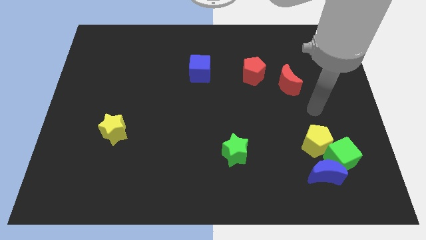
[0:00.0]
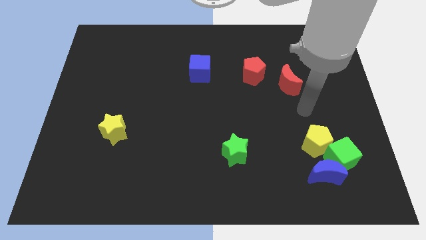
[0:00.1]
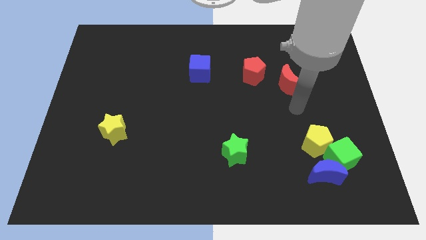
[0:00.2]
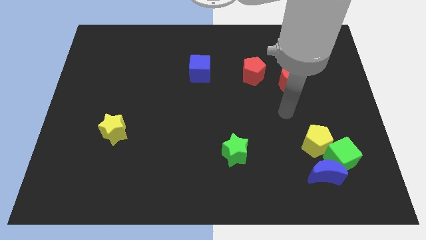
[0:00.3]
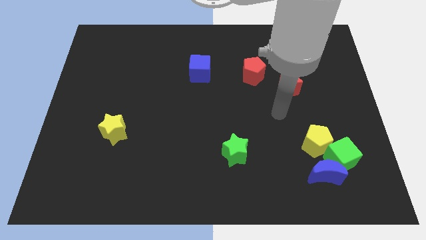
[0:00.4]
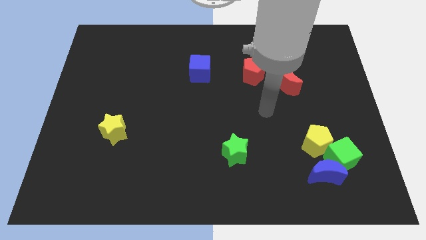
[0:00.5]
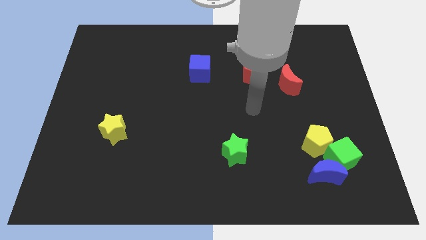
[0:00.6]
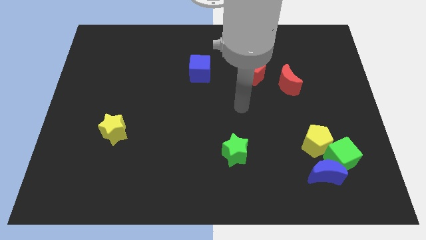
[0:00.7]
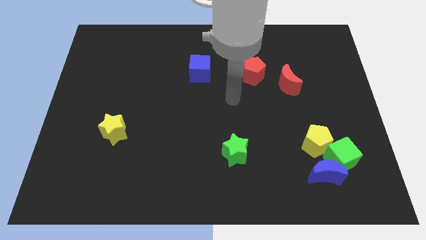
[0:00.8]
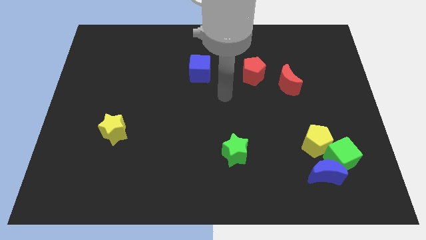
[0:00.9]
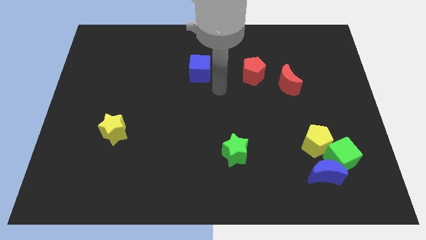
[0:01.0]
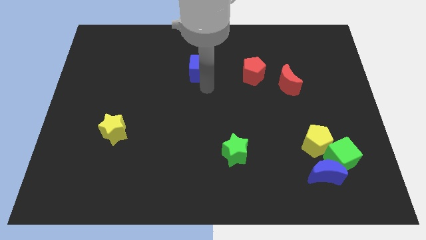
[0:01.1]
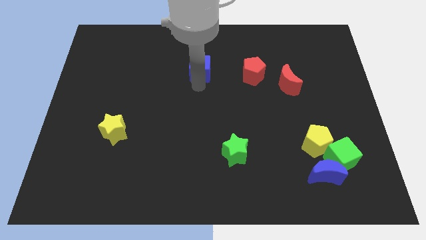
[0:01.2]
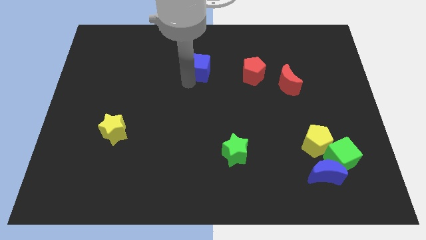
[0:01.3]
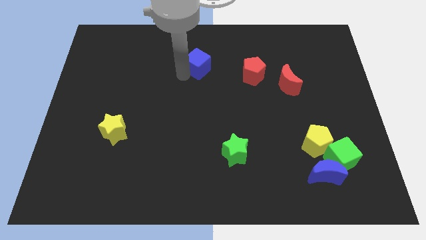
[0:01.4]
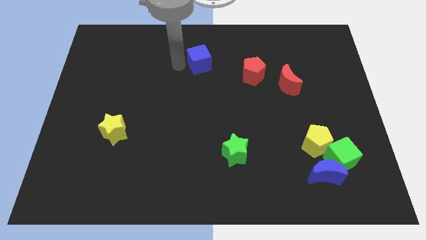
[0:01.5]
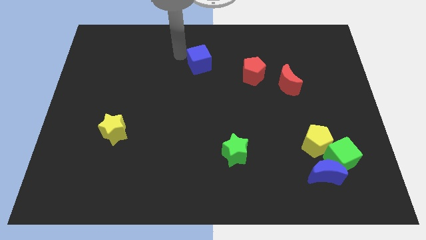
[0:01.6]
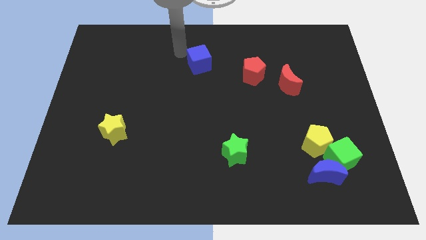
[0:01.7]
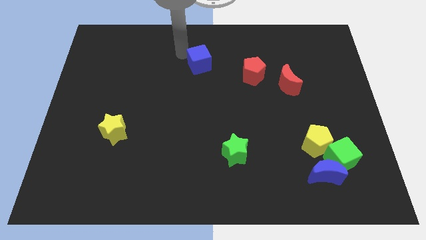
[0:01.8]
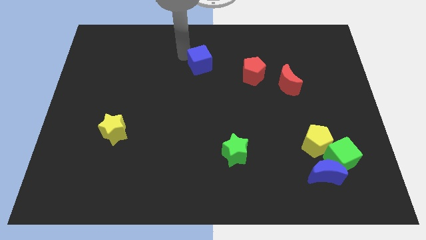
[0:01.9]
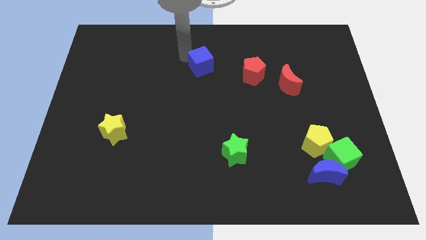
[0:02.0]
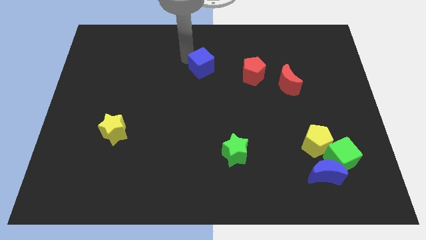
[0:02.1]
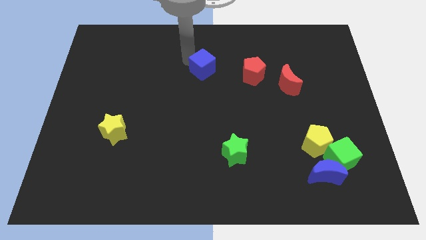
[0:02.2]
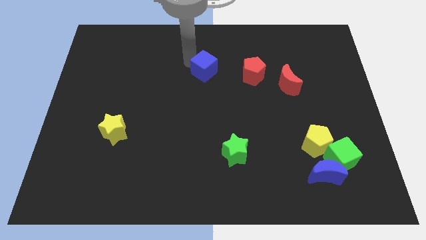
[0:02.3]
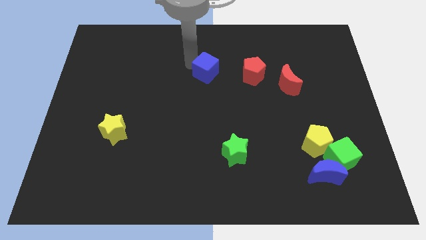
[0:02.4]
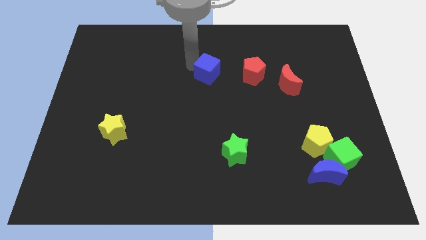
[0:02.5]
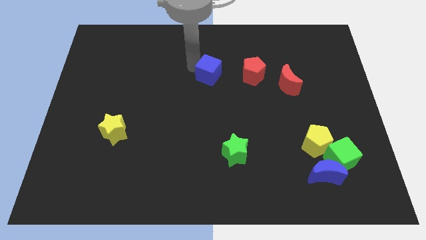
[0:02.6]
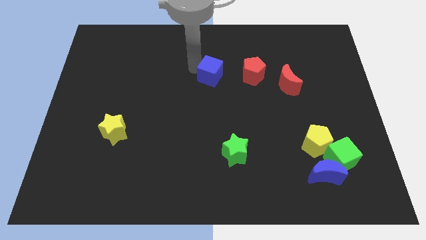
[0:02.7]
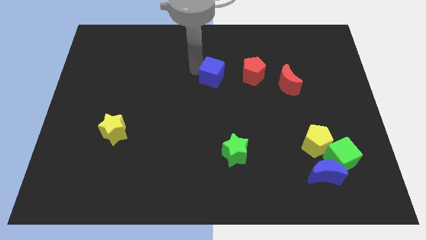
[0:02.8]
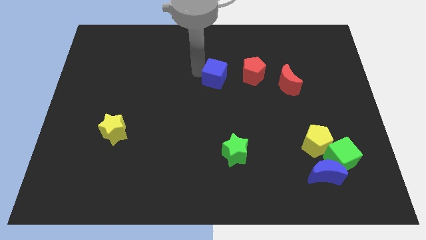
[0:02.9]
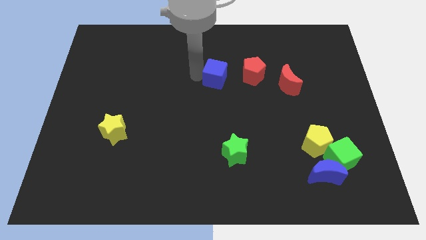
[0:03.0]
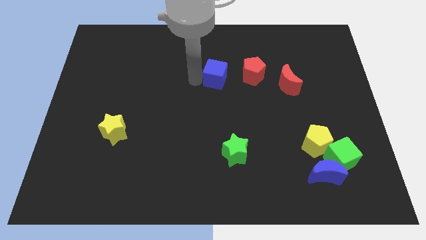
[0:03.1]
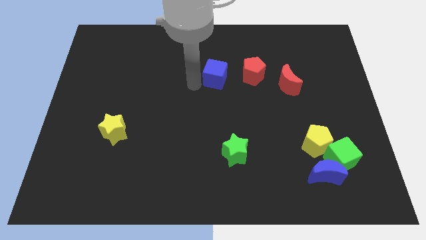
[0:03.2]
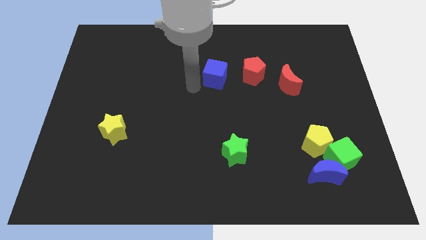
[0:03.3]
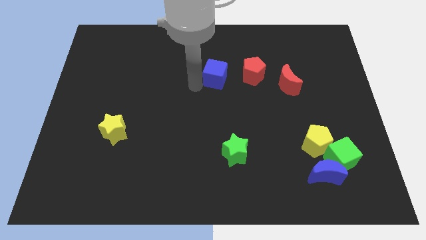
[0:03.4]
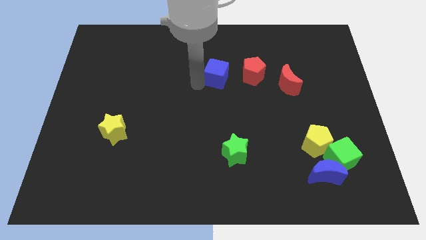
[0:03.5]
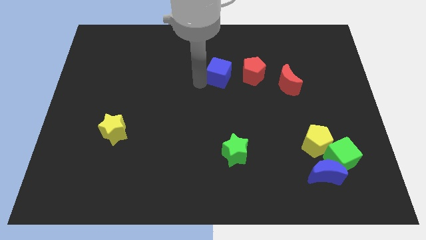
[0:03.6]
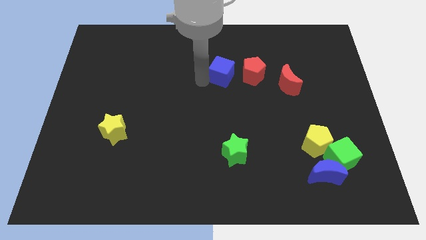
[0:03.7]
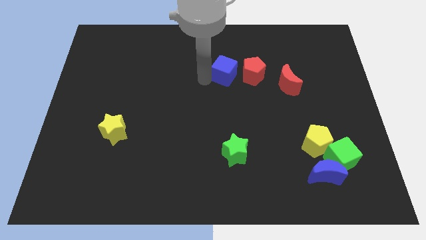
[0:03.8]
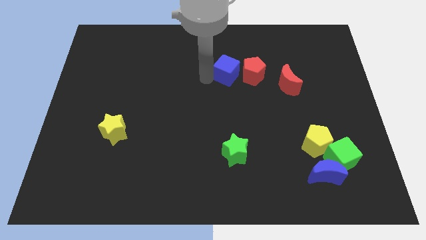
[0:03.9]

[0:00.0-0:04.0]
move the blue cube to the right somewhat

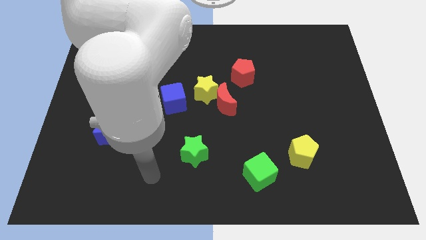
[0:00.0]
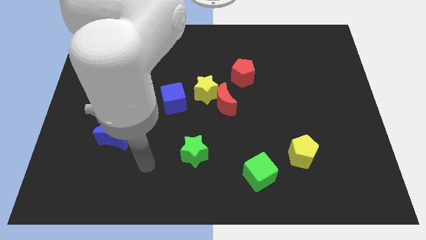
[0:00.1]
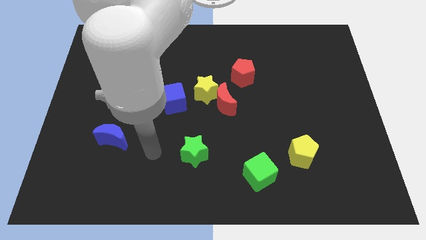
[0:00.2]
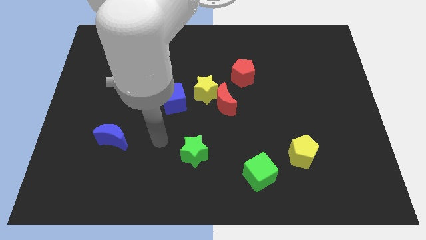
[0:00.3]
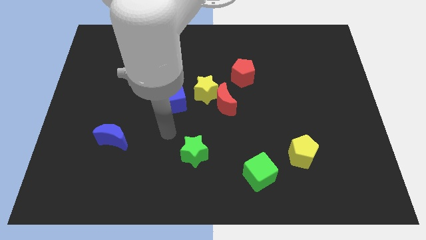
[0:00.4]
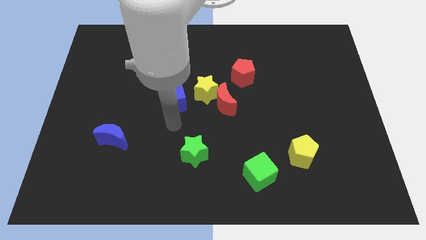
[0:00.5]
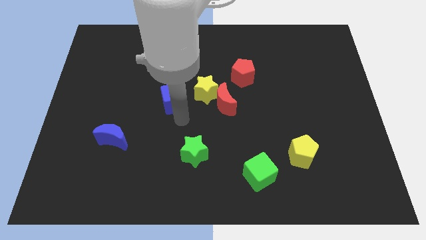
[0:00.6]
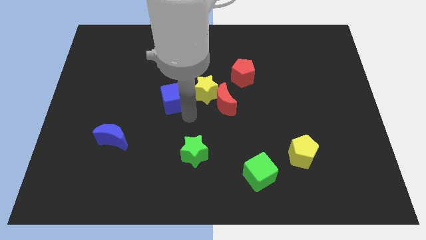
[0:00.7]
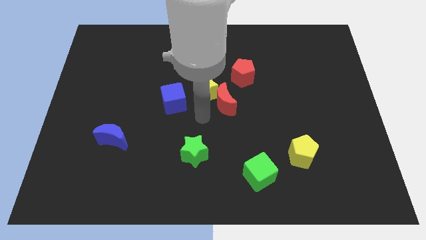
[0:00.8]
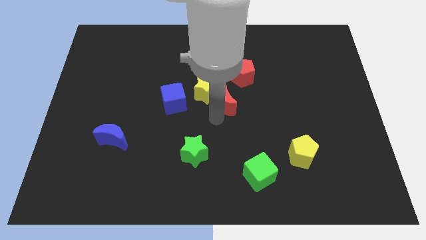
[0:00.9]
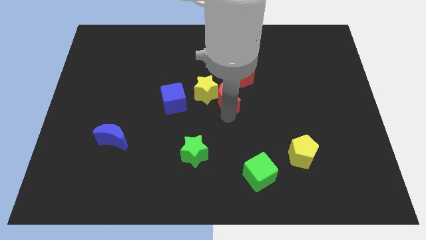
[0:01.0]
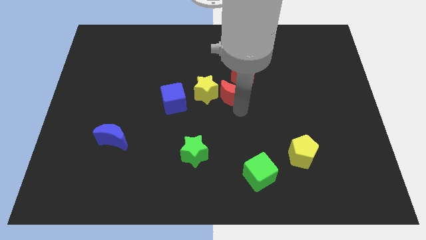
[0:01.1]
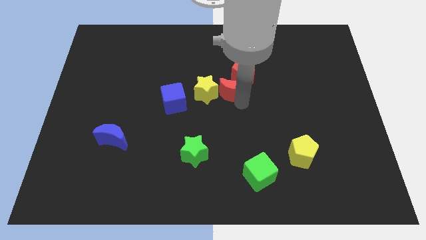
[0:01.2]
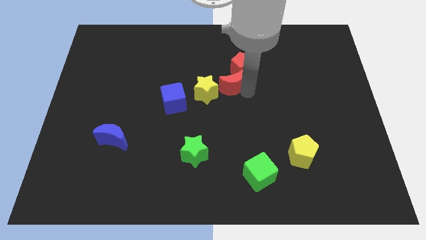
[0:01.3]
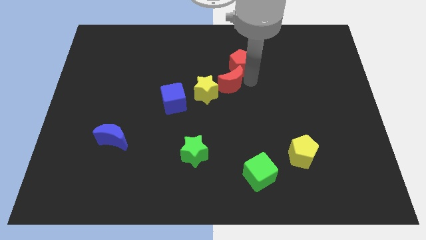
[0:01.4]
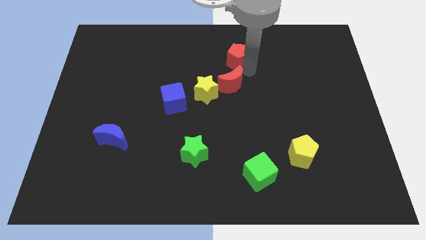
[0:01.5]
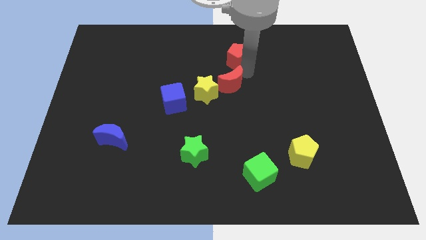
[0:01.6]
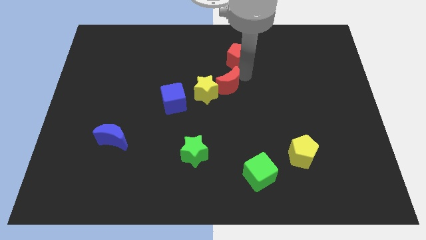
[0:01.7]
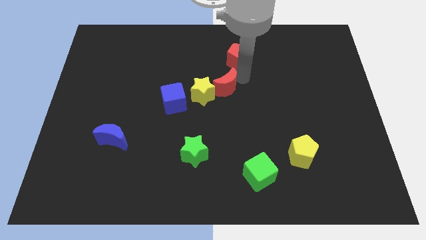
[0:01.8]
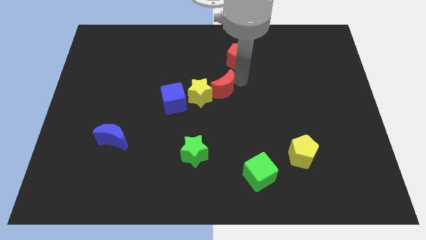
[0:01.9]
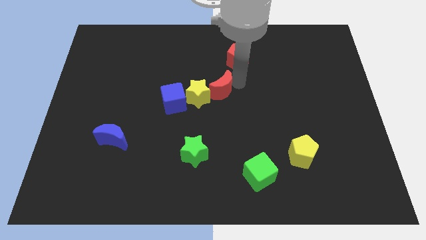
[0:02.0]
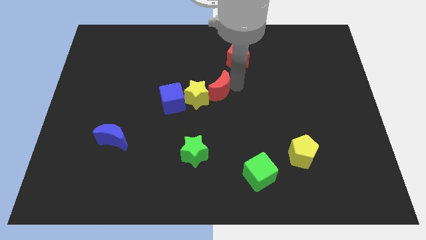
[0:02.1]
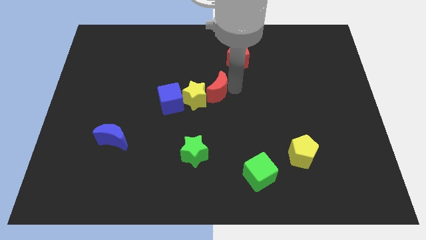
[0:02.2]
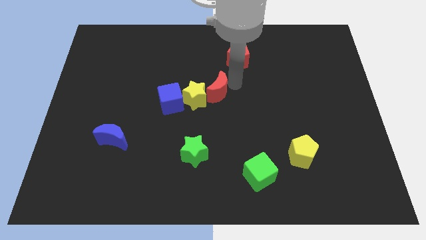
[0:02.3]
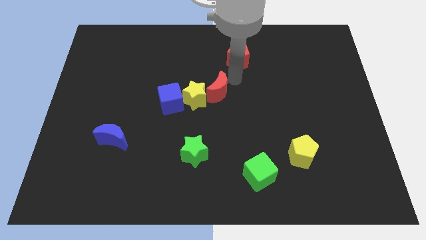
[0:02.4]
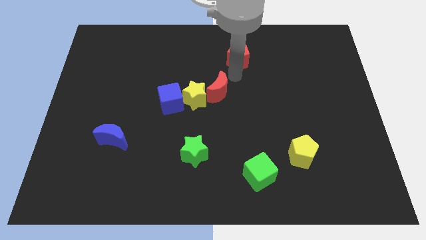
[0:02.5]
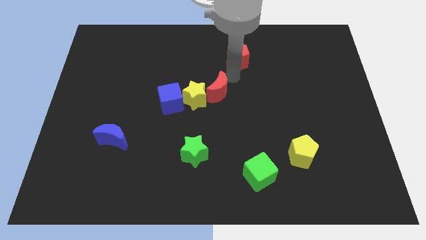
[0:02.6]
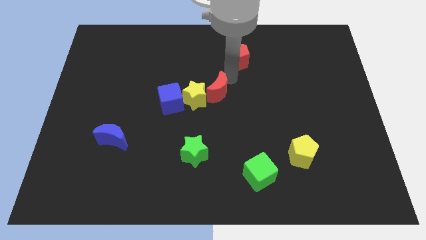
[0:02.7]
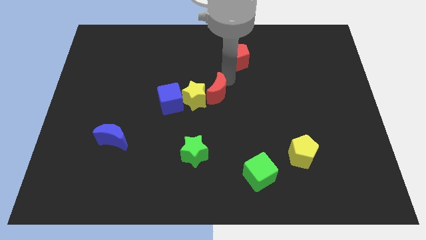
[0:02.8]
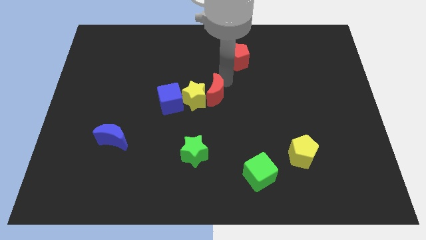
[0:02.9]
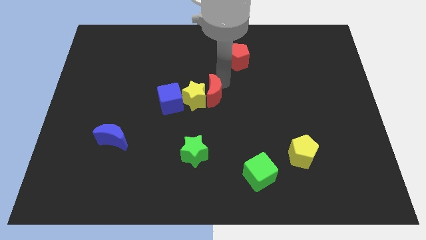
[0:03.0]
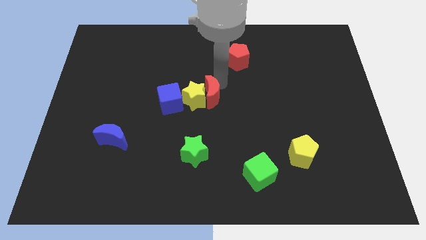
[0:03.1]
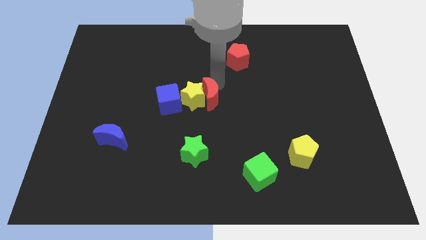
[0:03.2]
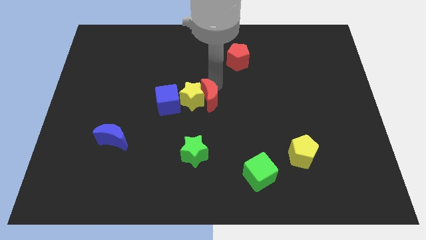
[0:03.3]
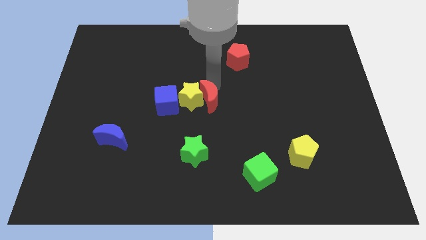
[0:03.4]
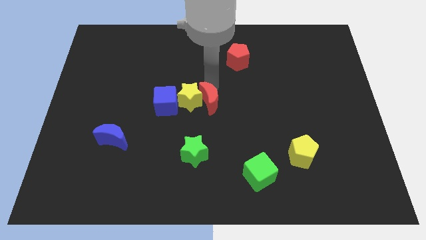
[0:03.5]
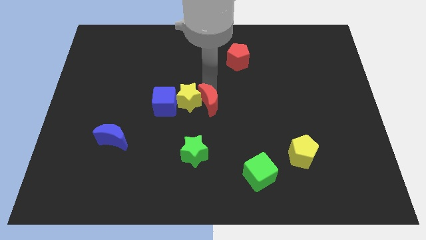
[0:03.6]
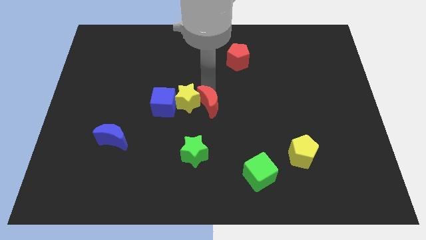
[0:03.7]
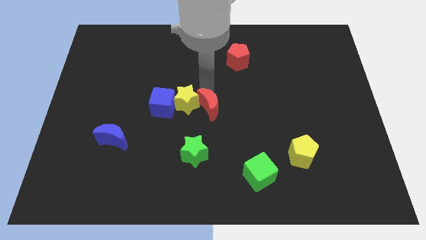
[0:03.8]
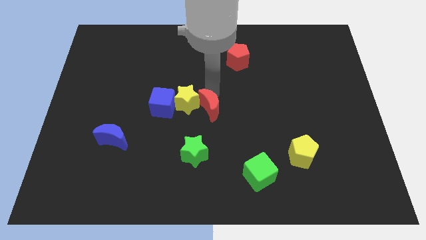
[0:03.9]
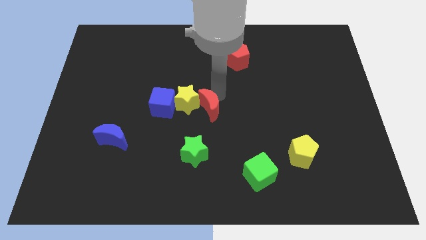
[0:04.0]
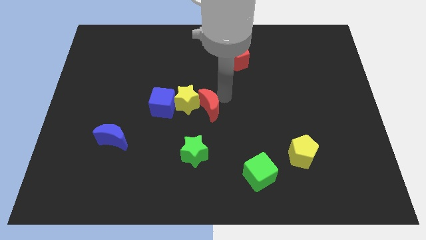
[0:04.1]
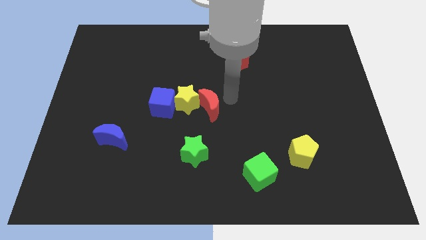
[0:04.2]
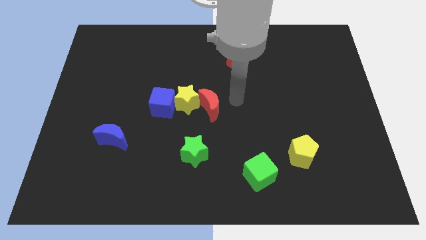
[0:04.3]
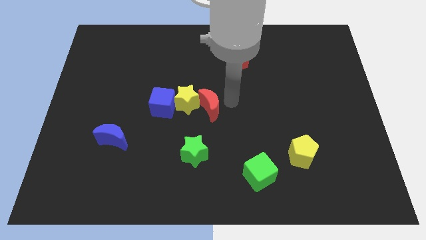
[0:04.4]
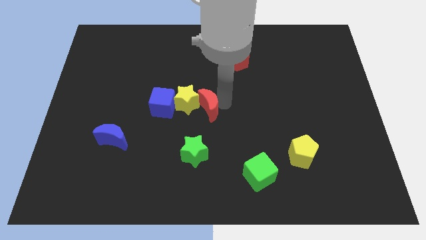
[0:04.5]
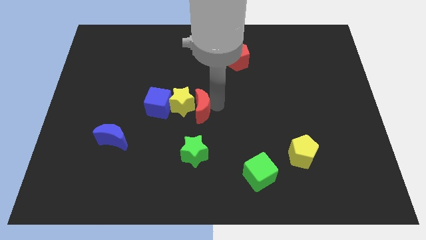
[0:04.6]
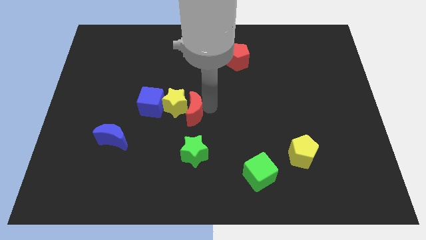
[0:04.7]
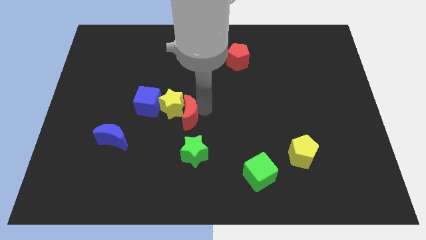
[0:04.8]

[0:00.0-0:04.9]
push the red moon left a little
